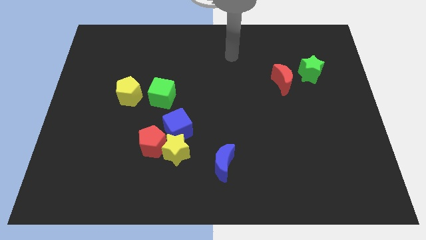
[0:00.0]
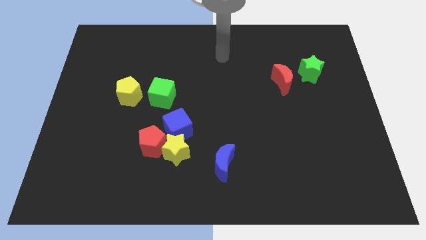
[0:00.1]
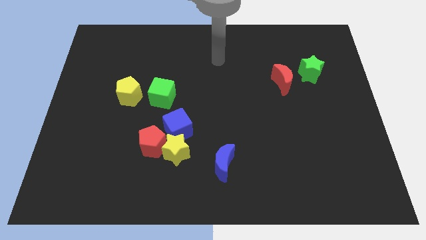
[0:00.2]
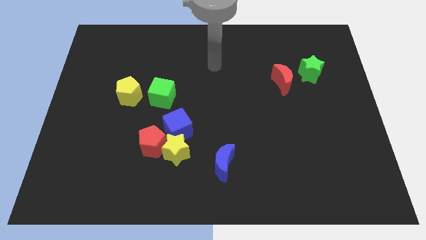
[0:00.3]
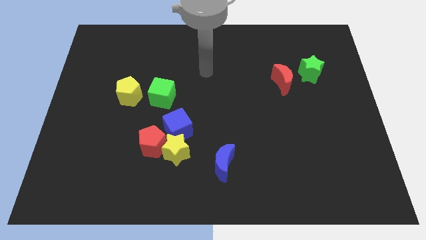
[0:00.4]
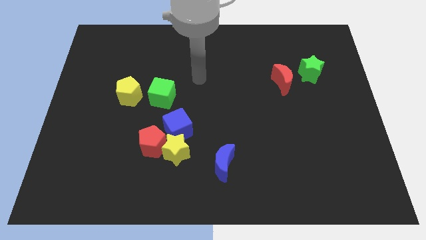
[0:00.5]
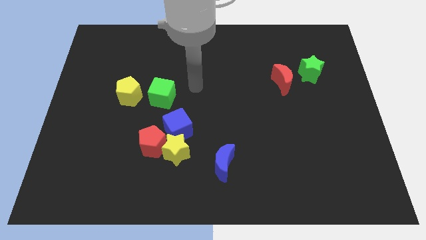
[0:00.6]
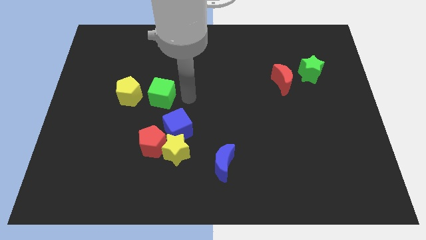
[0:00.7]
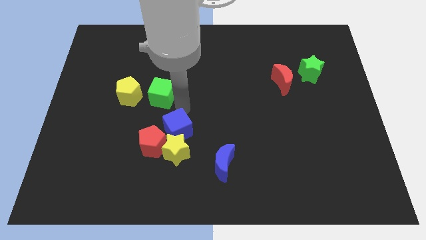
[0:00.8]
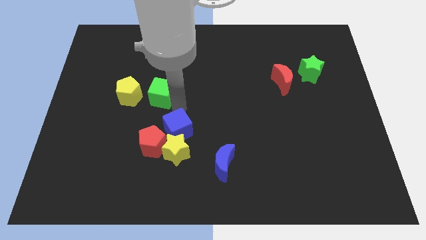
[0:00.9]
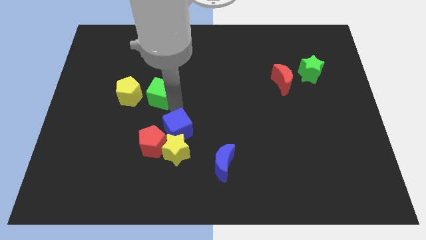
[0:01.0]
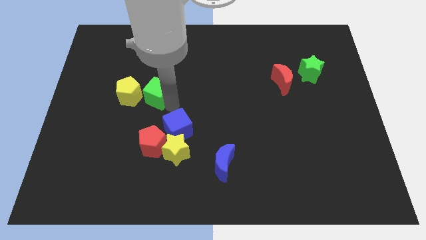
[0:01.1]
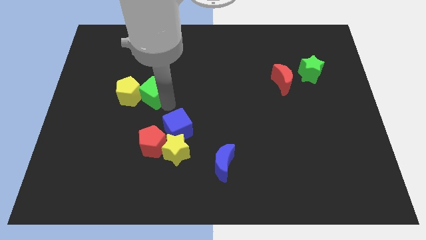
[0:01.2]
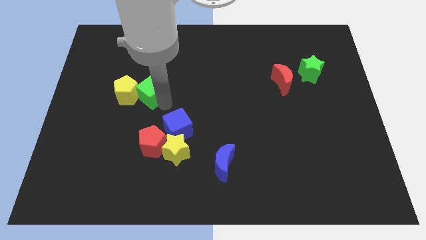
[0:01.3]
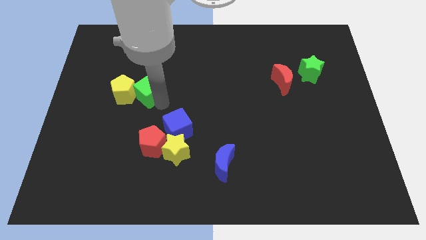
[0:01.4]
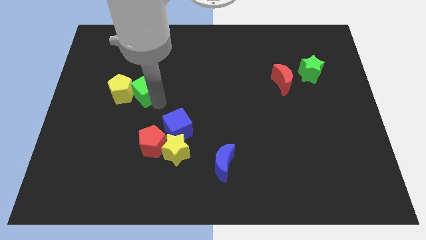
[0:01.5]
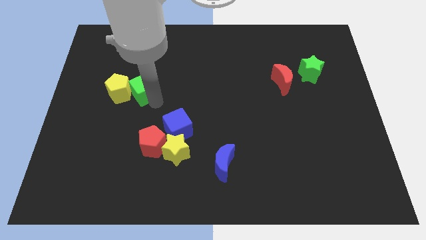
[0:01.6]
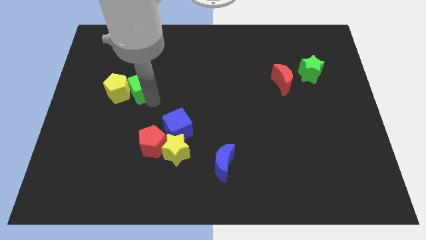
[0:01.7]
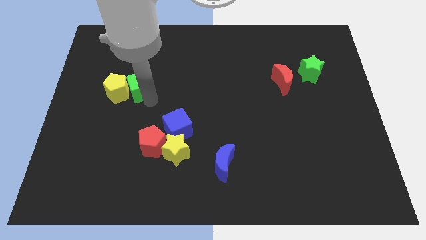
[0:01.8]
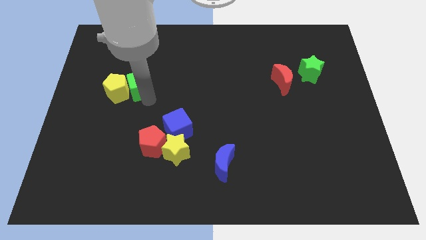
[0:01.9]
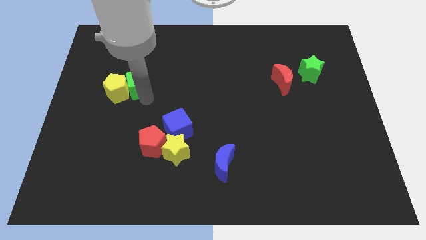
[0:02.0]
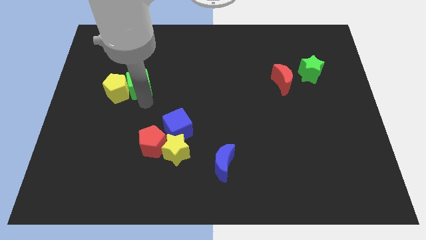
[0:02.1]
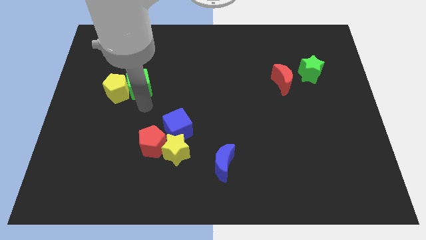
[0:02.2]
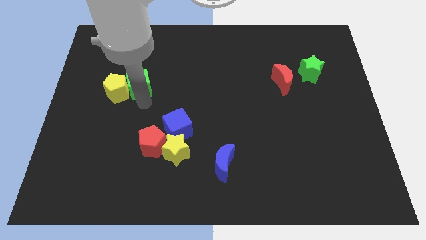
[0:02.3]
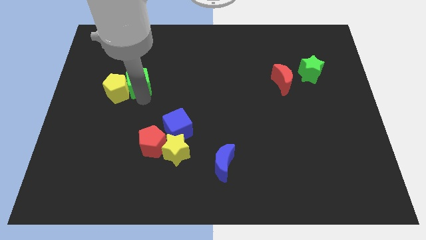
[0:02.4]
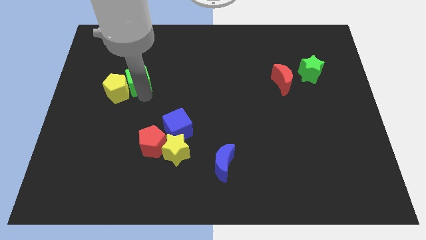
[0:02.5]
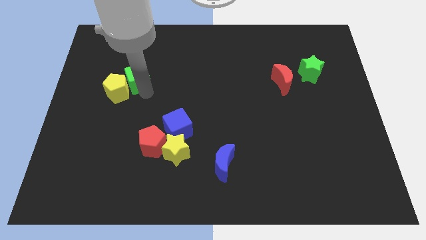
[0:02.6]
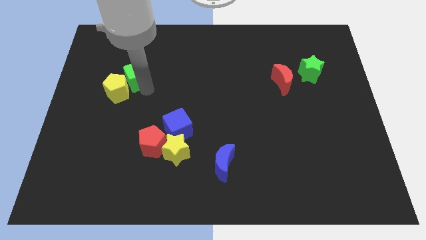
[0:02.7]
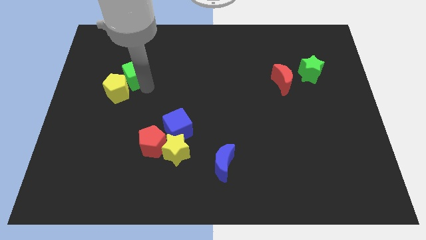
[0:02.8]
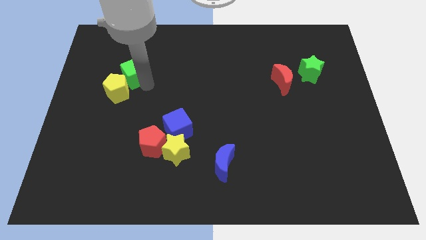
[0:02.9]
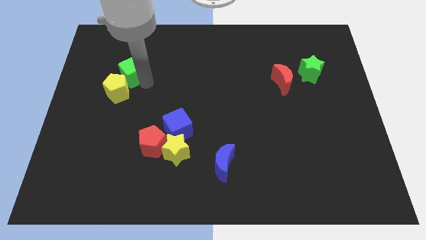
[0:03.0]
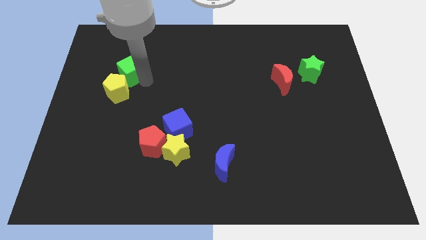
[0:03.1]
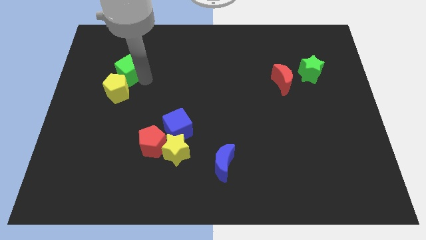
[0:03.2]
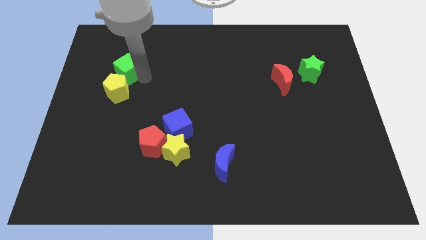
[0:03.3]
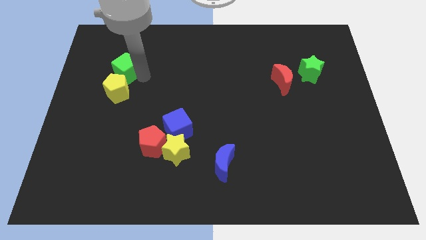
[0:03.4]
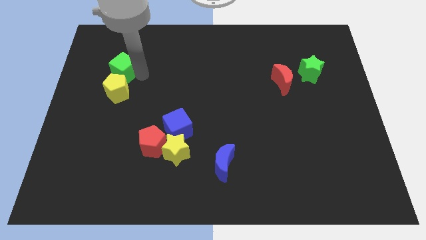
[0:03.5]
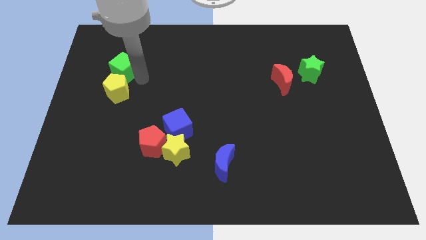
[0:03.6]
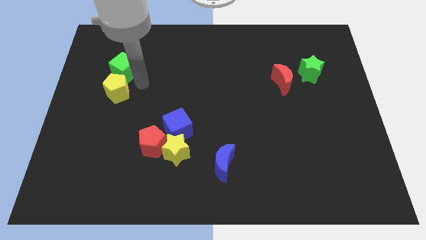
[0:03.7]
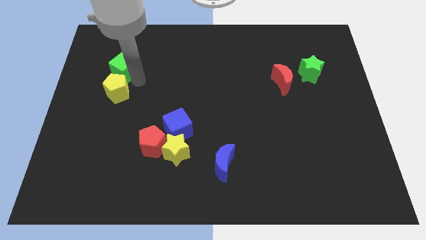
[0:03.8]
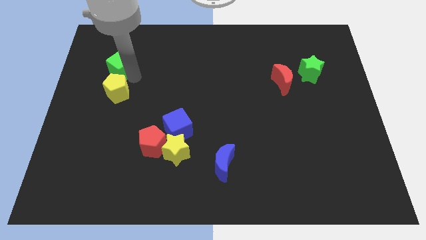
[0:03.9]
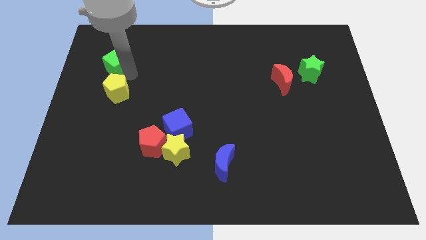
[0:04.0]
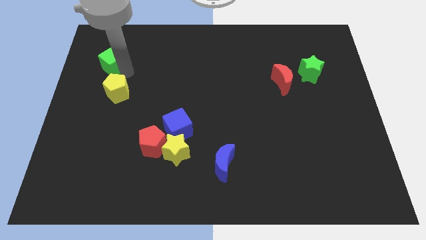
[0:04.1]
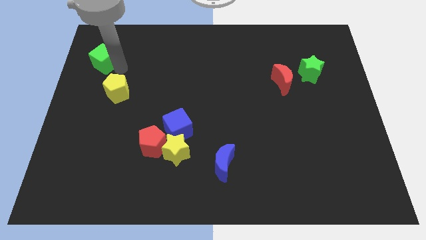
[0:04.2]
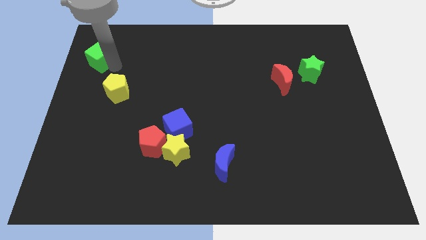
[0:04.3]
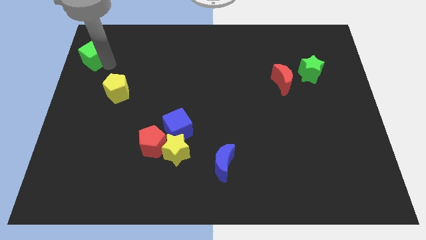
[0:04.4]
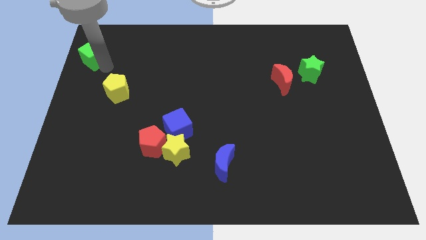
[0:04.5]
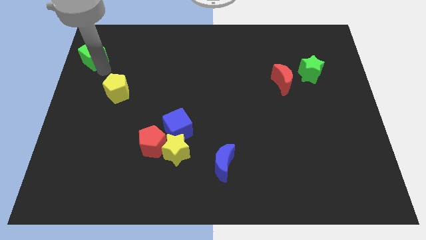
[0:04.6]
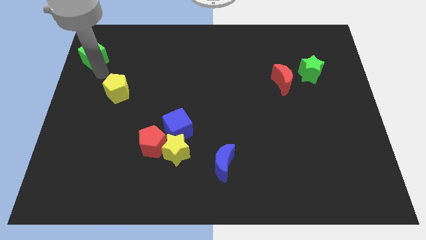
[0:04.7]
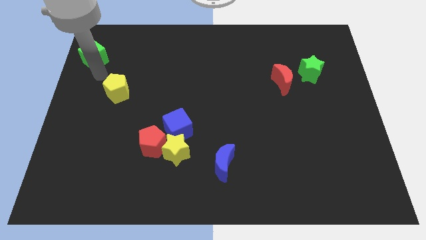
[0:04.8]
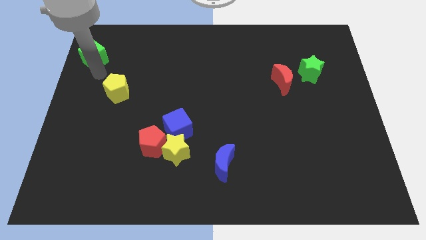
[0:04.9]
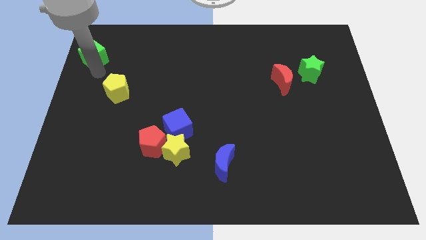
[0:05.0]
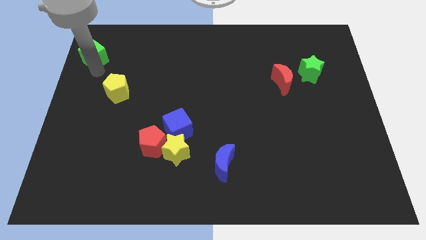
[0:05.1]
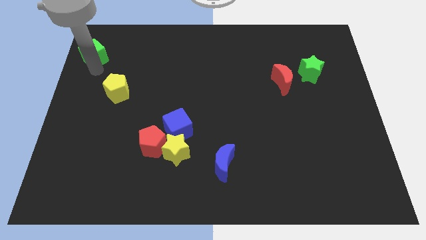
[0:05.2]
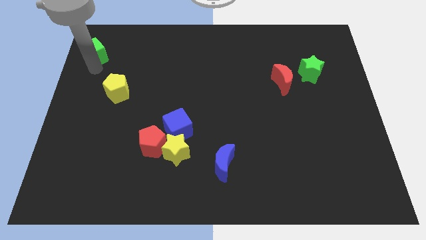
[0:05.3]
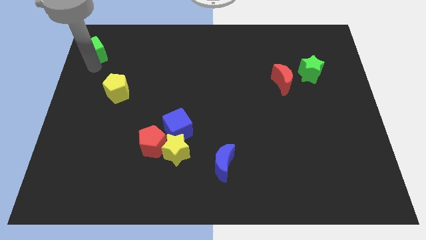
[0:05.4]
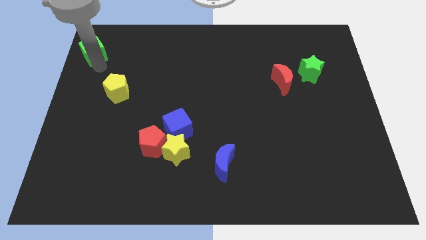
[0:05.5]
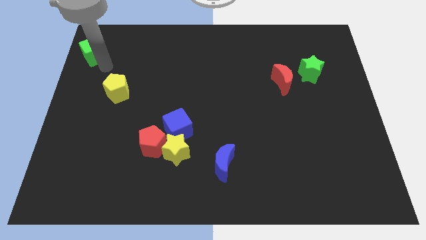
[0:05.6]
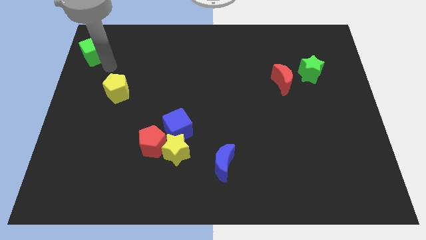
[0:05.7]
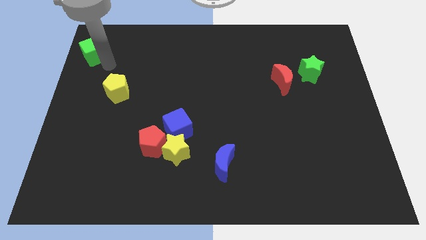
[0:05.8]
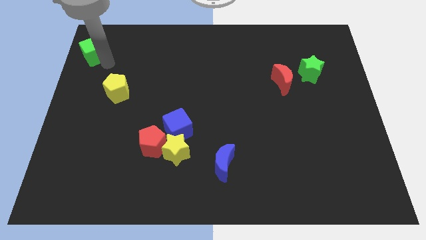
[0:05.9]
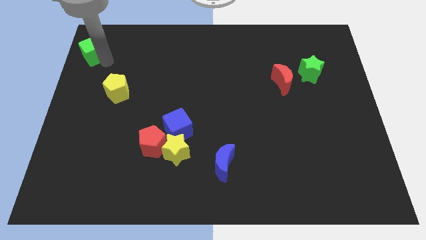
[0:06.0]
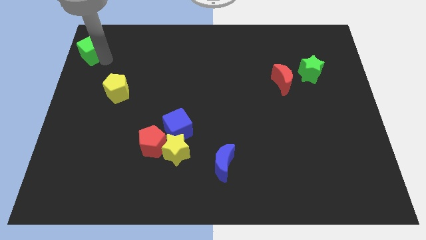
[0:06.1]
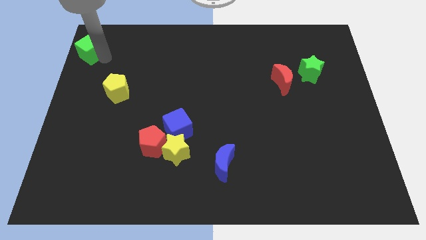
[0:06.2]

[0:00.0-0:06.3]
push the green cube to the upper left corner
